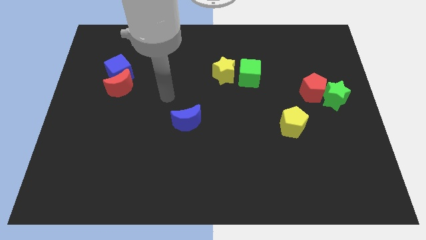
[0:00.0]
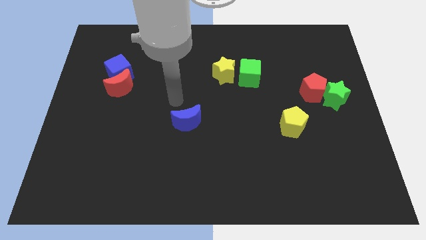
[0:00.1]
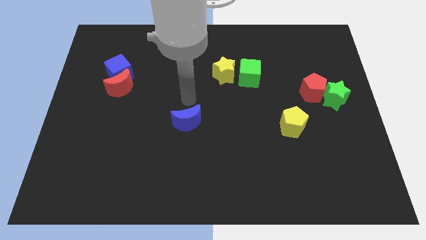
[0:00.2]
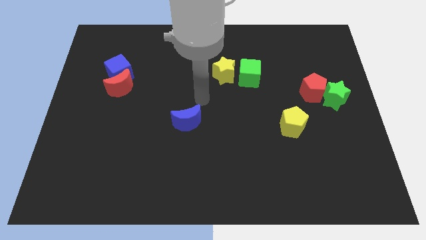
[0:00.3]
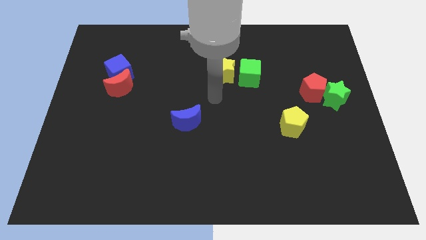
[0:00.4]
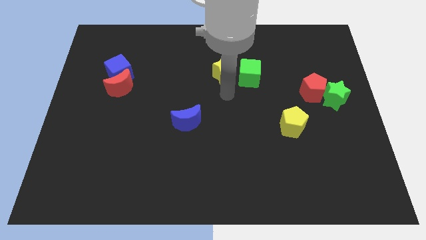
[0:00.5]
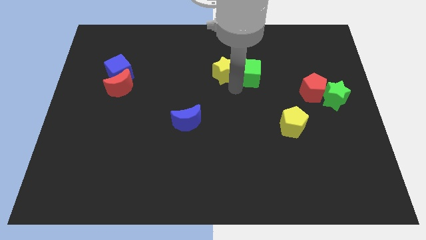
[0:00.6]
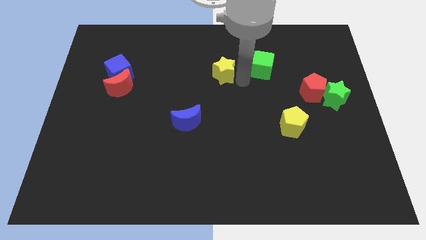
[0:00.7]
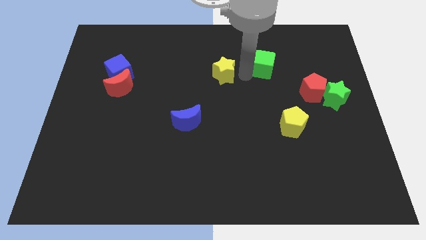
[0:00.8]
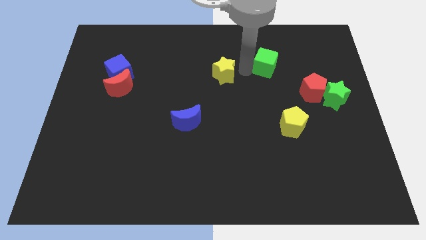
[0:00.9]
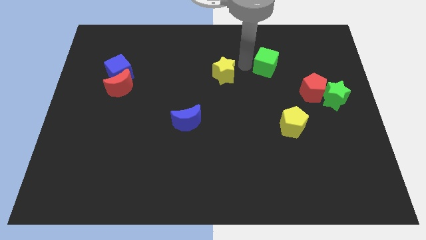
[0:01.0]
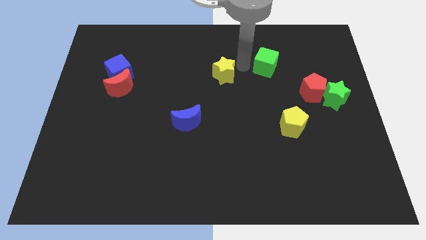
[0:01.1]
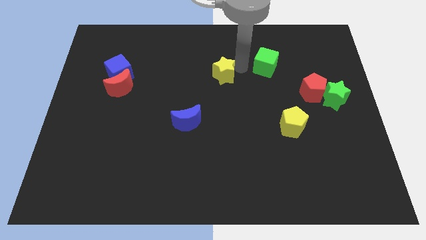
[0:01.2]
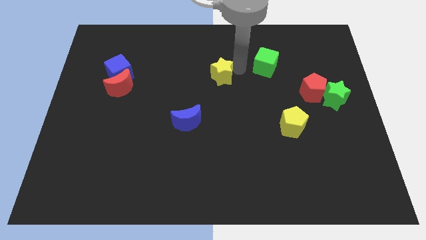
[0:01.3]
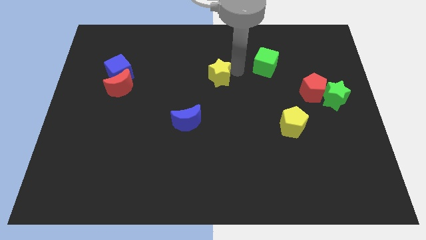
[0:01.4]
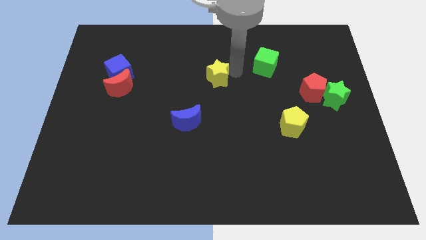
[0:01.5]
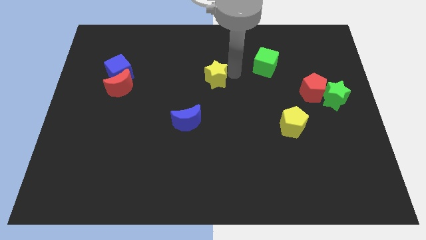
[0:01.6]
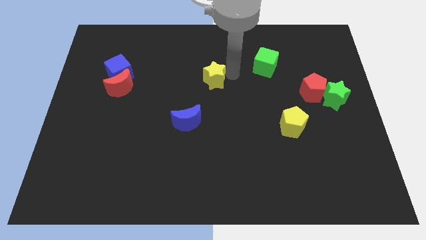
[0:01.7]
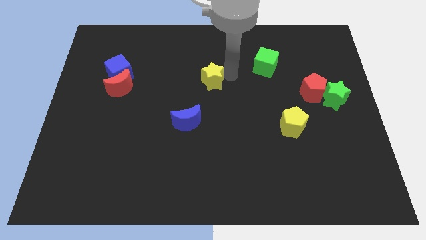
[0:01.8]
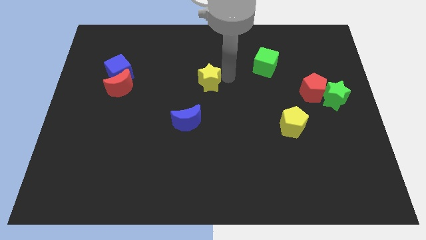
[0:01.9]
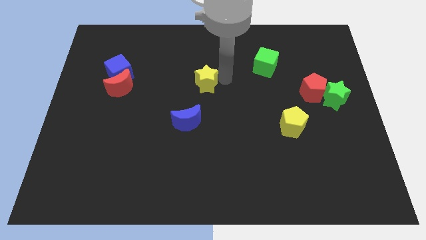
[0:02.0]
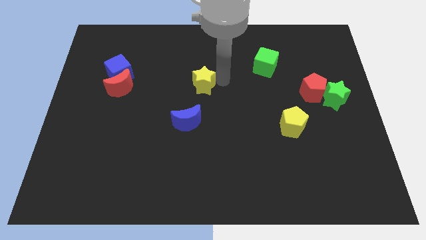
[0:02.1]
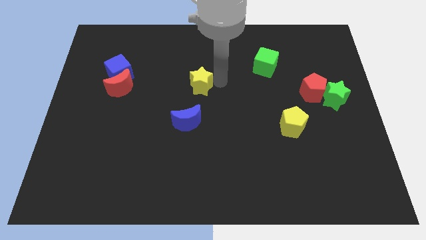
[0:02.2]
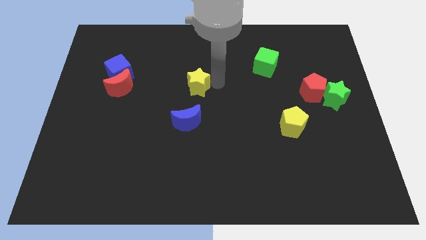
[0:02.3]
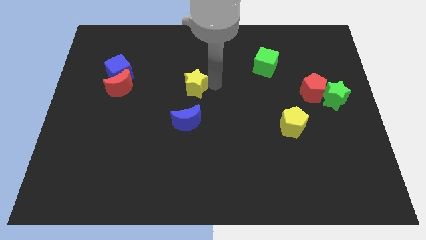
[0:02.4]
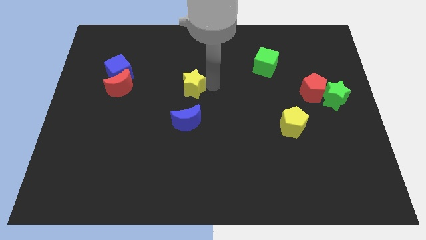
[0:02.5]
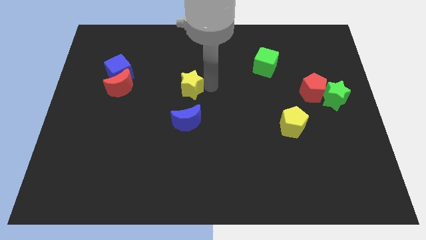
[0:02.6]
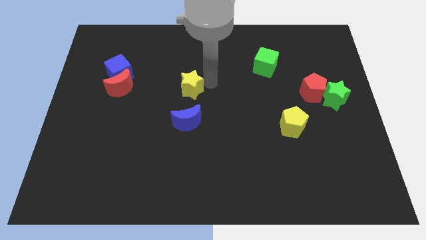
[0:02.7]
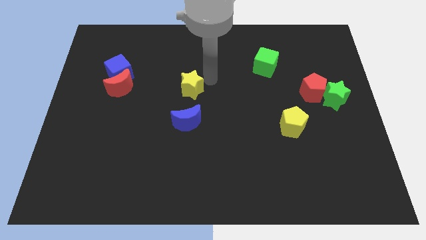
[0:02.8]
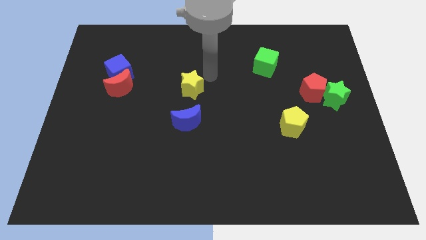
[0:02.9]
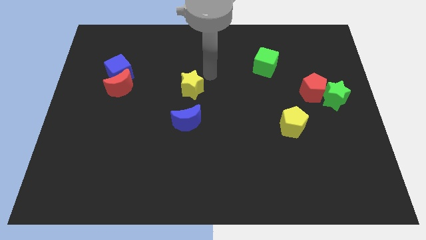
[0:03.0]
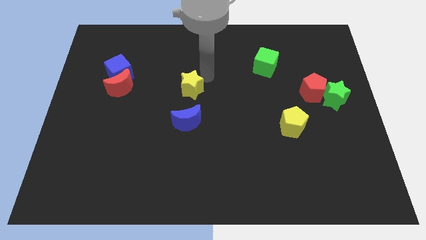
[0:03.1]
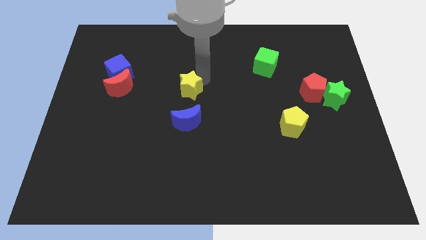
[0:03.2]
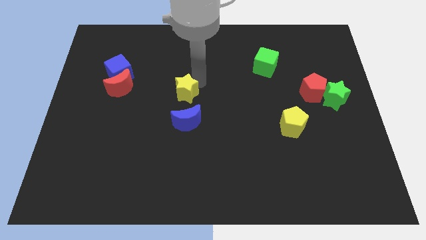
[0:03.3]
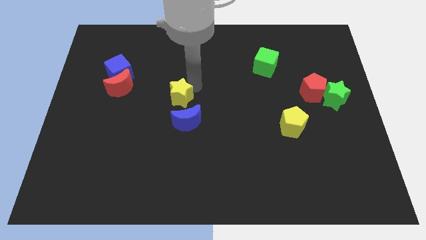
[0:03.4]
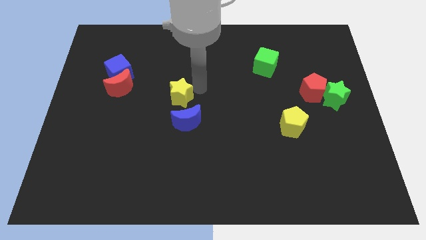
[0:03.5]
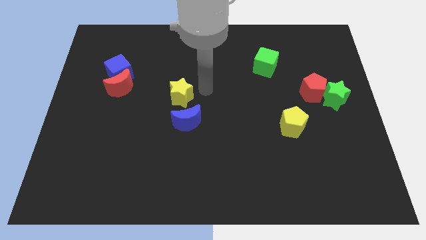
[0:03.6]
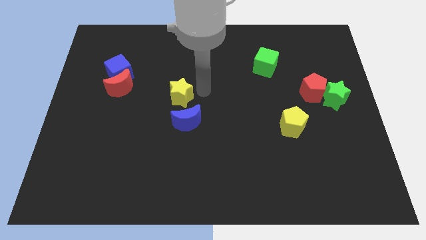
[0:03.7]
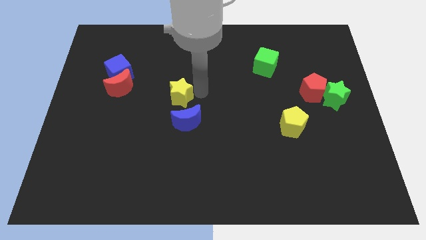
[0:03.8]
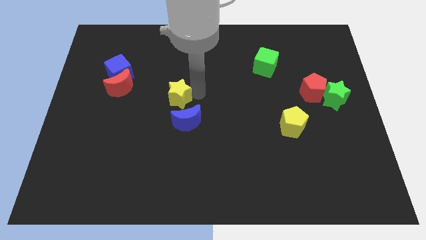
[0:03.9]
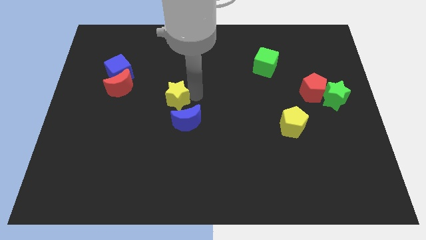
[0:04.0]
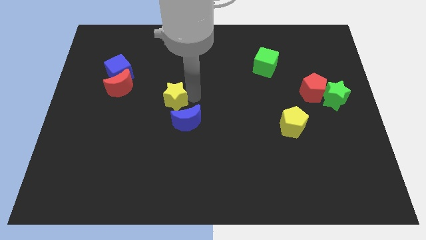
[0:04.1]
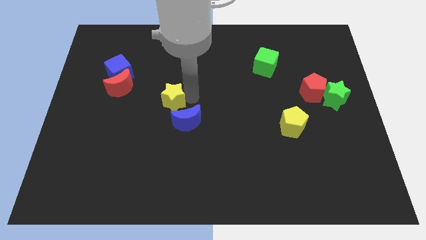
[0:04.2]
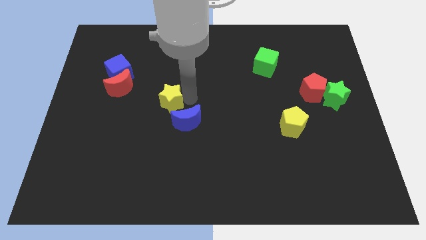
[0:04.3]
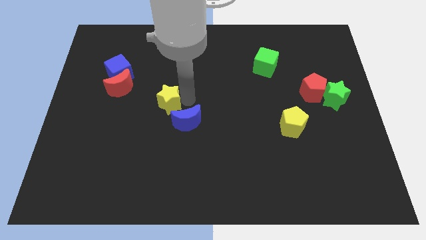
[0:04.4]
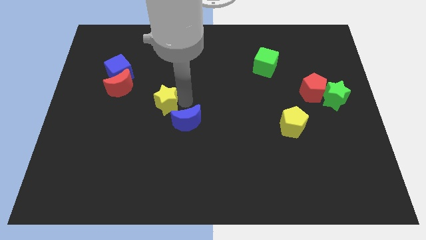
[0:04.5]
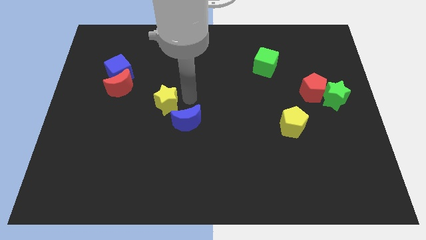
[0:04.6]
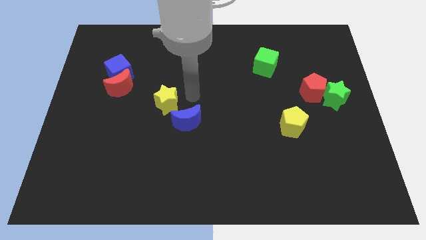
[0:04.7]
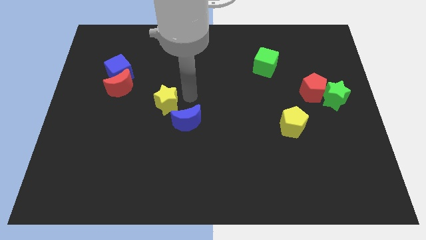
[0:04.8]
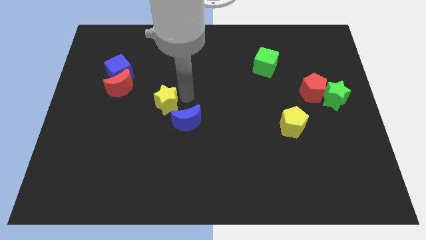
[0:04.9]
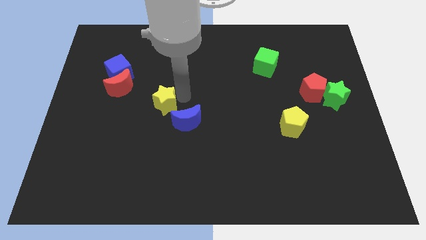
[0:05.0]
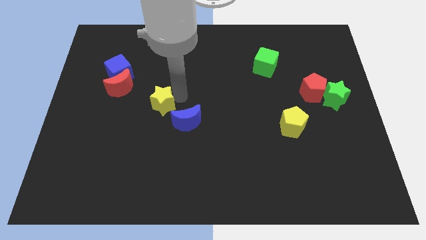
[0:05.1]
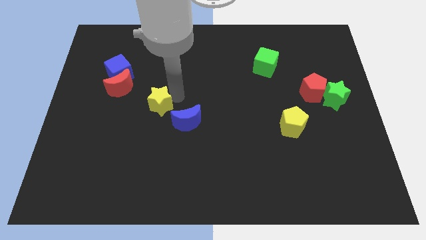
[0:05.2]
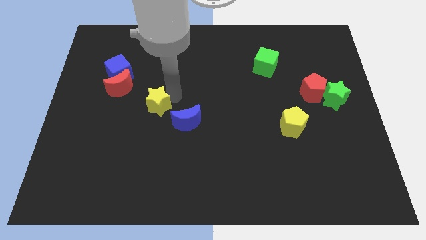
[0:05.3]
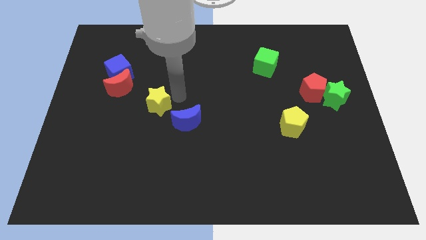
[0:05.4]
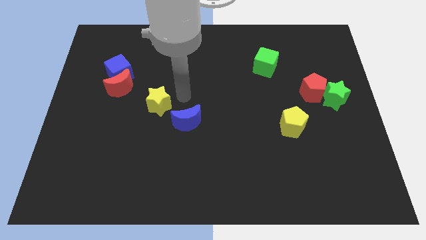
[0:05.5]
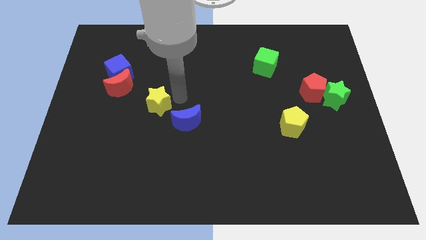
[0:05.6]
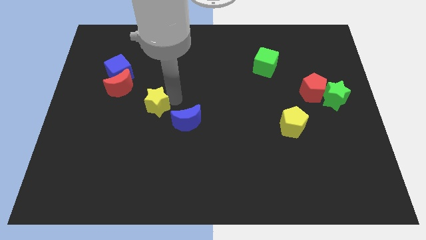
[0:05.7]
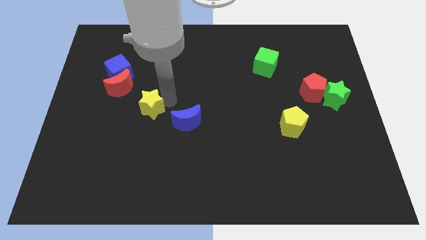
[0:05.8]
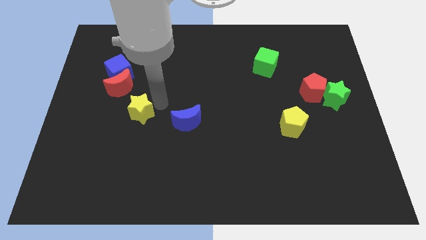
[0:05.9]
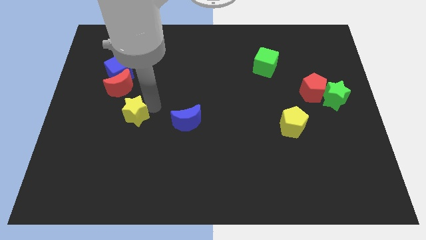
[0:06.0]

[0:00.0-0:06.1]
push the yellow star to the bottom of the red moon

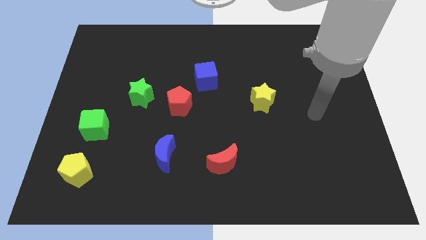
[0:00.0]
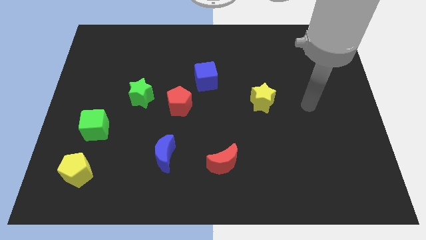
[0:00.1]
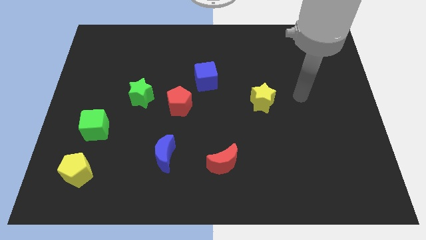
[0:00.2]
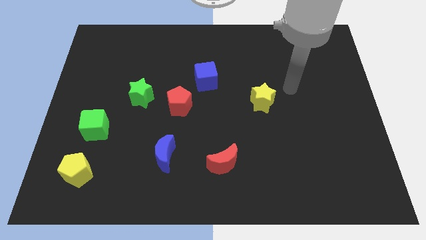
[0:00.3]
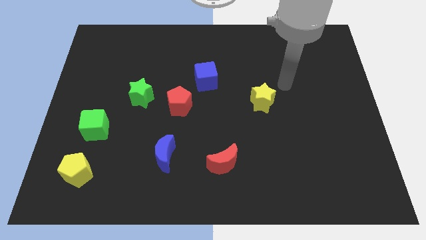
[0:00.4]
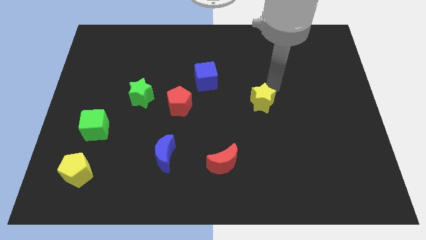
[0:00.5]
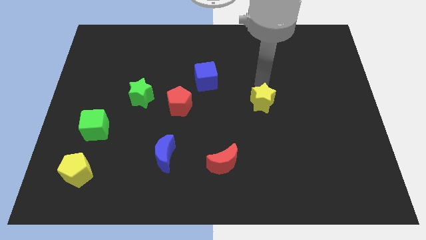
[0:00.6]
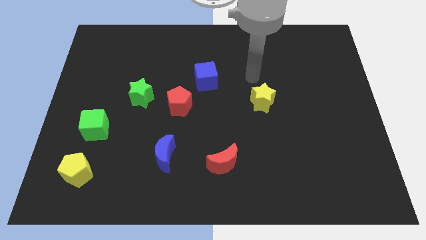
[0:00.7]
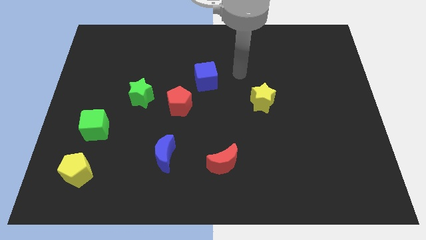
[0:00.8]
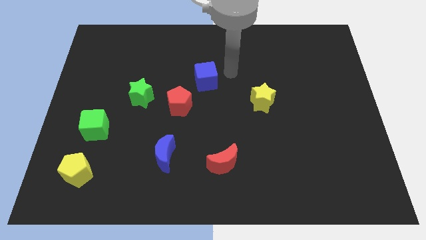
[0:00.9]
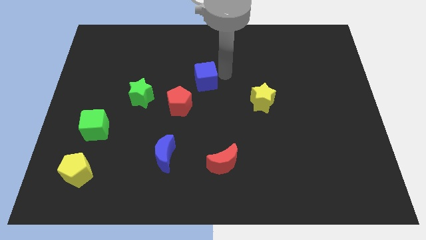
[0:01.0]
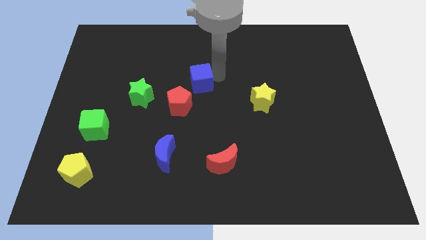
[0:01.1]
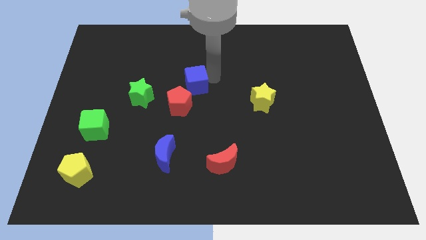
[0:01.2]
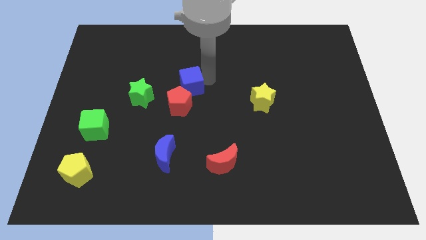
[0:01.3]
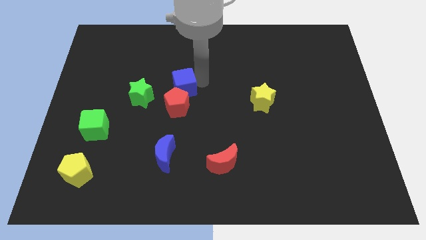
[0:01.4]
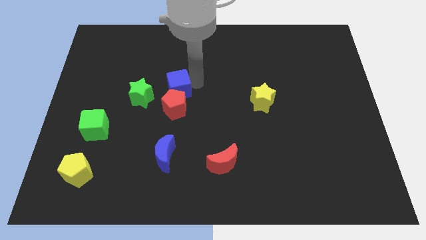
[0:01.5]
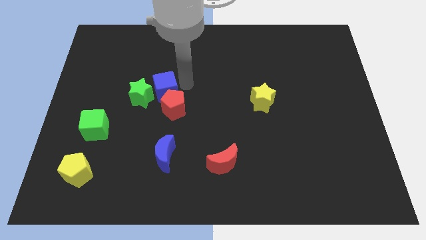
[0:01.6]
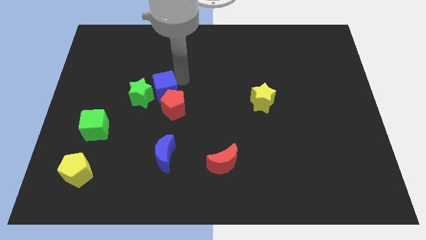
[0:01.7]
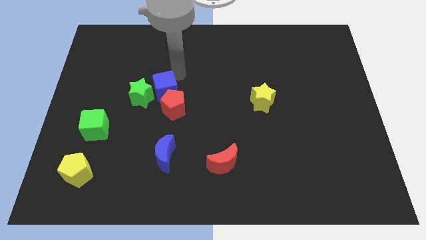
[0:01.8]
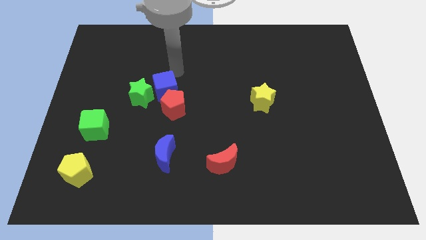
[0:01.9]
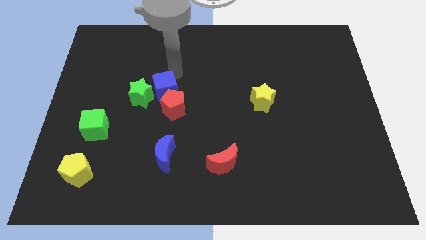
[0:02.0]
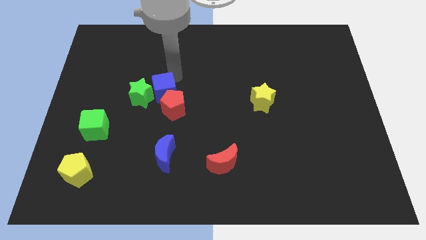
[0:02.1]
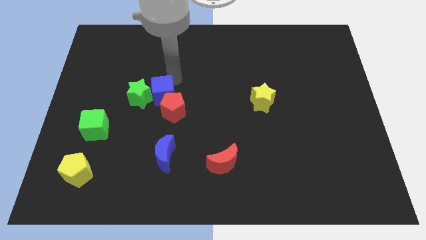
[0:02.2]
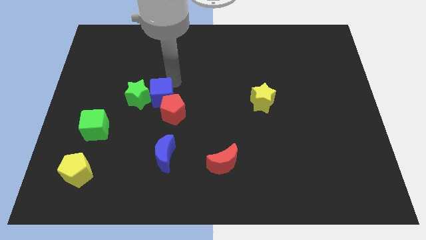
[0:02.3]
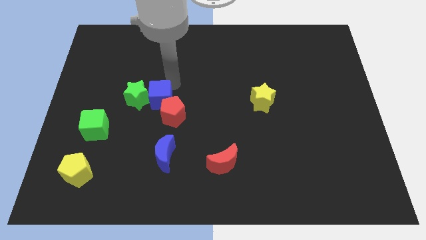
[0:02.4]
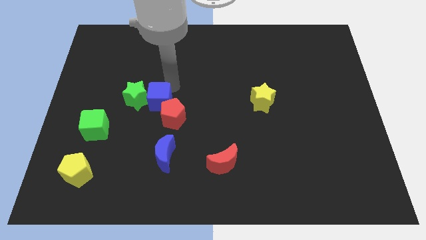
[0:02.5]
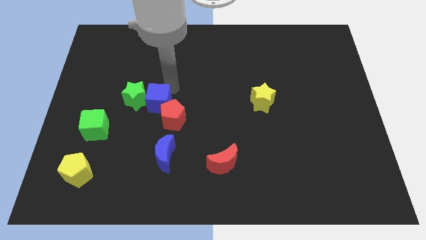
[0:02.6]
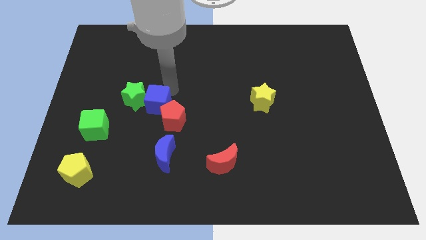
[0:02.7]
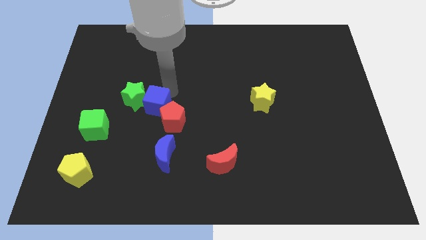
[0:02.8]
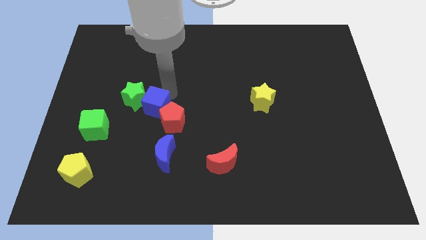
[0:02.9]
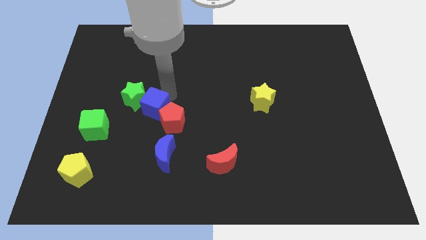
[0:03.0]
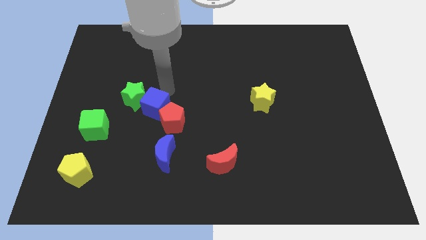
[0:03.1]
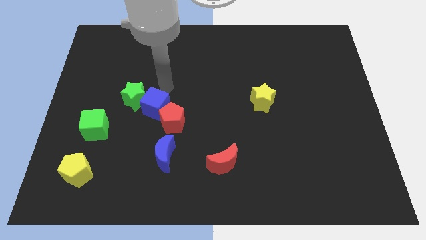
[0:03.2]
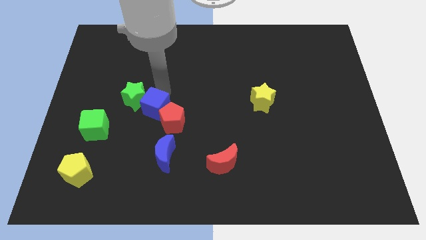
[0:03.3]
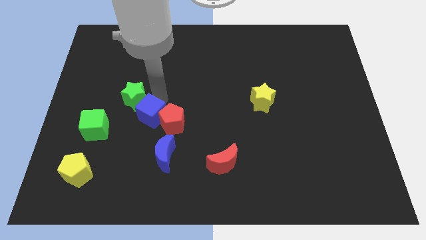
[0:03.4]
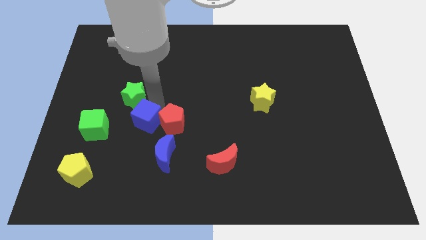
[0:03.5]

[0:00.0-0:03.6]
move the blue cube to the top left side of the blue moon
